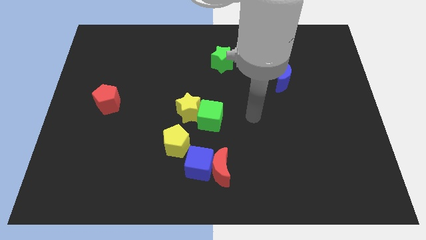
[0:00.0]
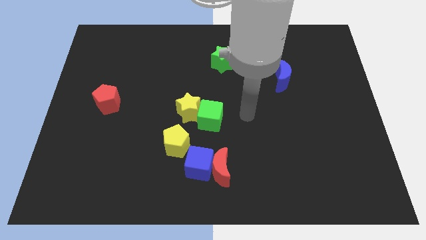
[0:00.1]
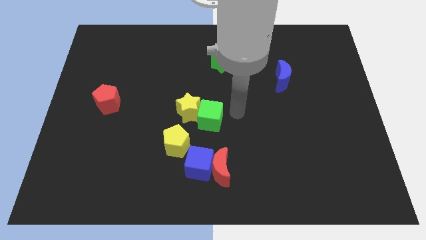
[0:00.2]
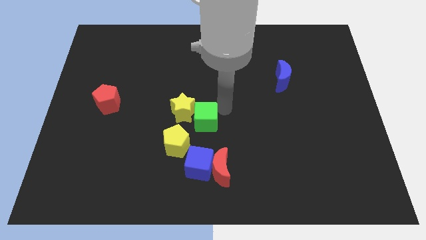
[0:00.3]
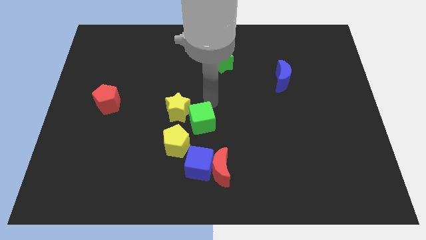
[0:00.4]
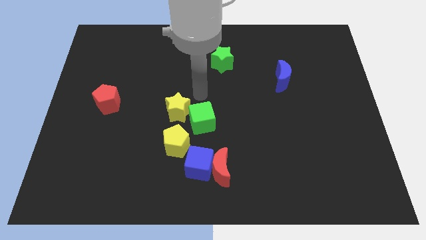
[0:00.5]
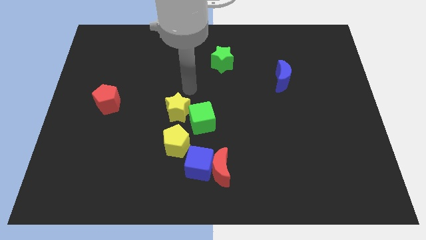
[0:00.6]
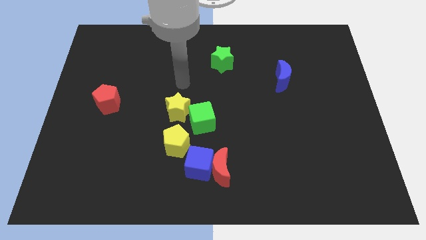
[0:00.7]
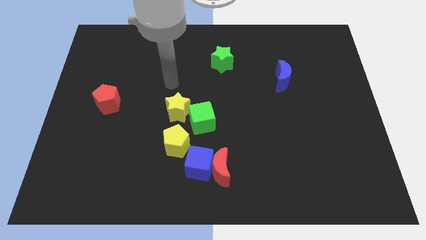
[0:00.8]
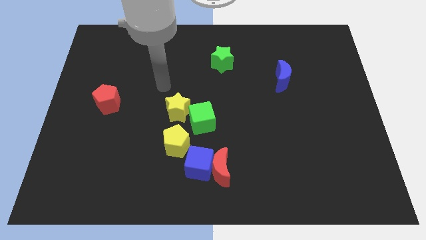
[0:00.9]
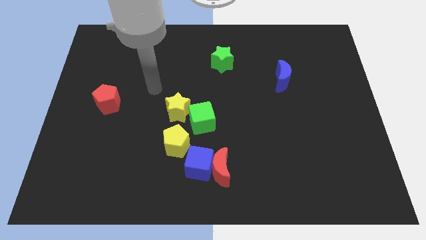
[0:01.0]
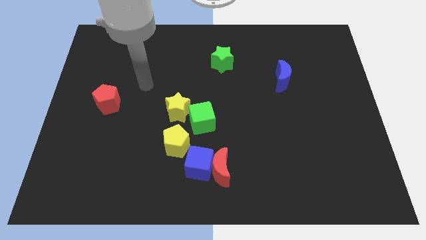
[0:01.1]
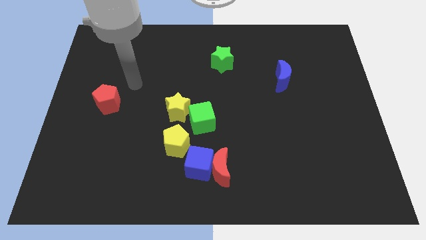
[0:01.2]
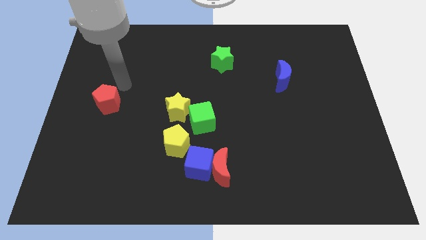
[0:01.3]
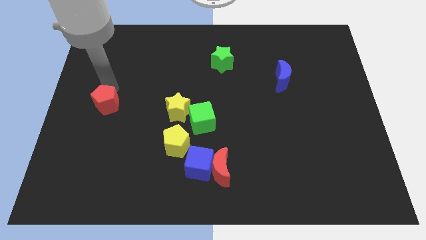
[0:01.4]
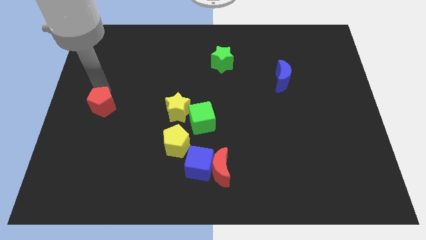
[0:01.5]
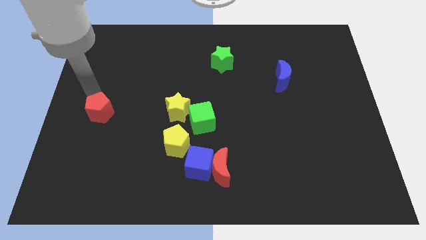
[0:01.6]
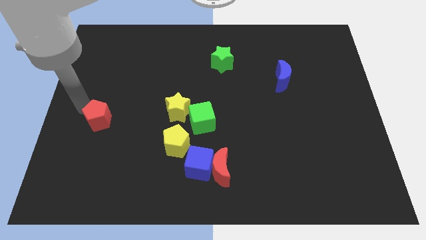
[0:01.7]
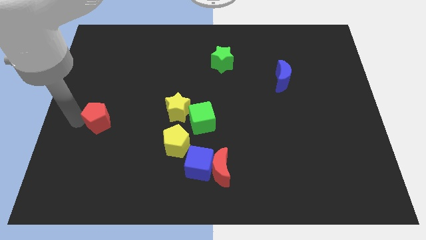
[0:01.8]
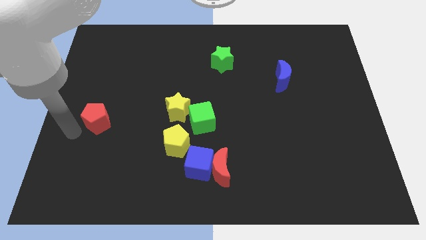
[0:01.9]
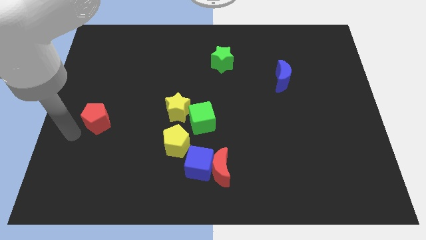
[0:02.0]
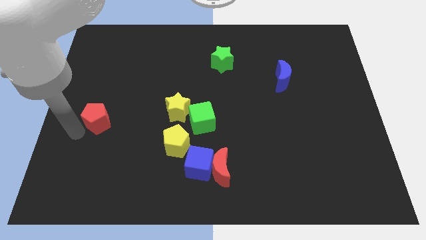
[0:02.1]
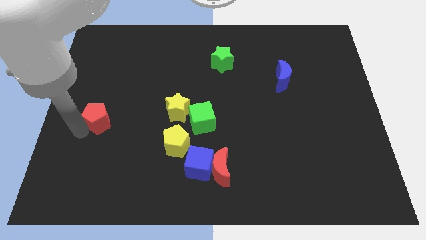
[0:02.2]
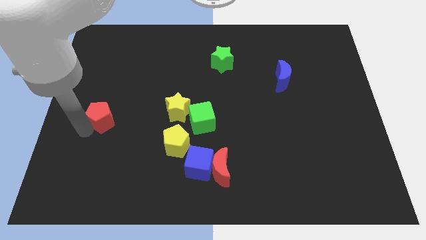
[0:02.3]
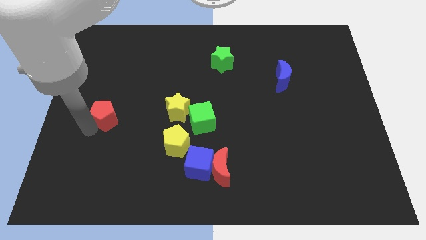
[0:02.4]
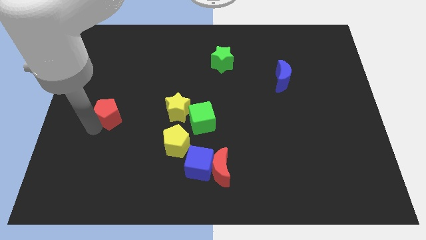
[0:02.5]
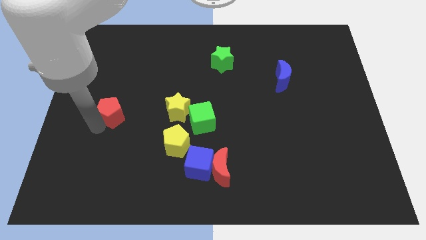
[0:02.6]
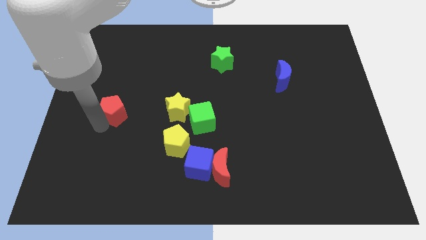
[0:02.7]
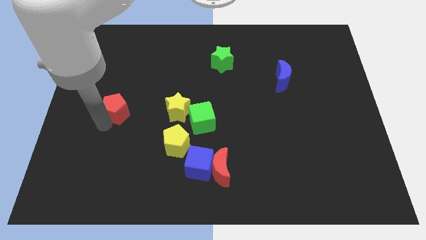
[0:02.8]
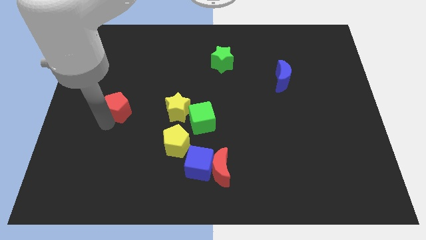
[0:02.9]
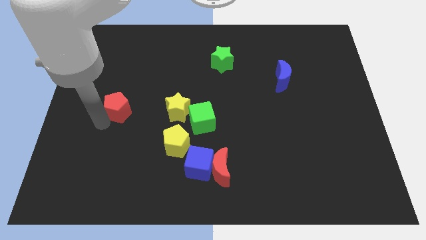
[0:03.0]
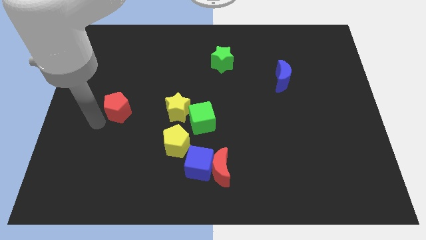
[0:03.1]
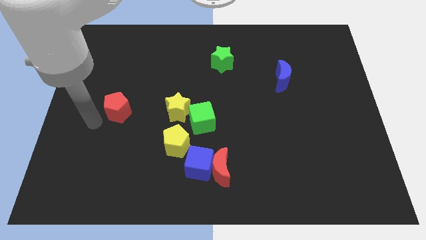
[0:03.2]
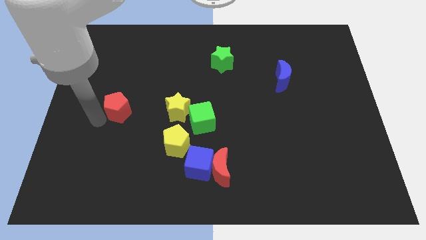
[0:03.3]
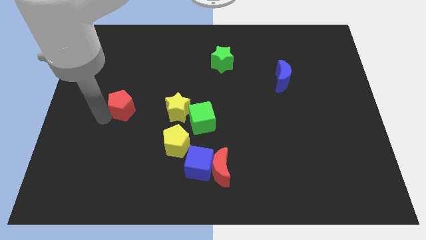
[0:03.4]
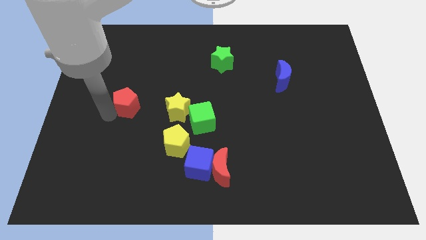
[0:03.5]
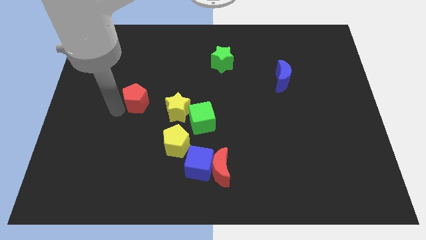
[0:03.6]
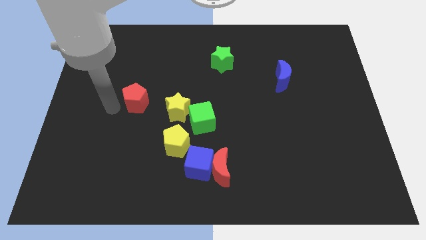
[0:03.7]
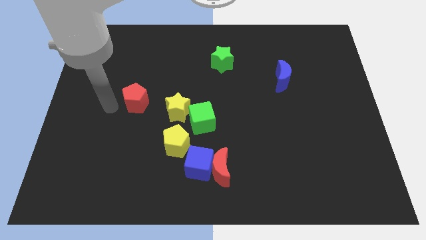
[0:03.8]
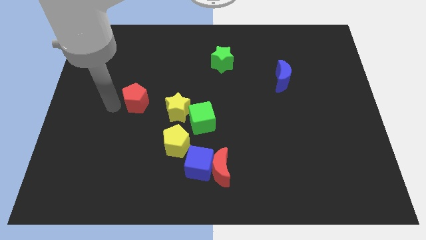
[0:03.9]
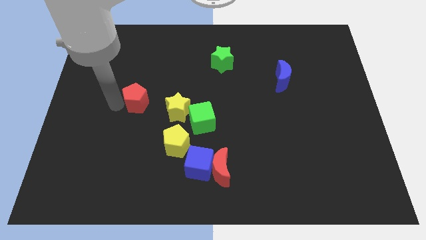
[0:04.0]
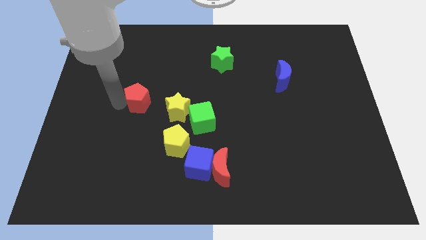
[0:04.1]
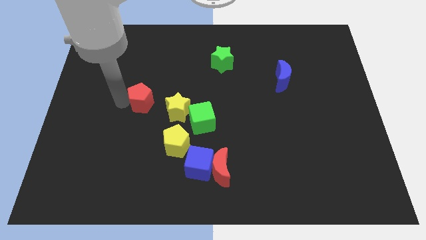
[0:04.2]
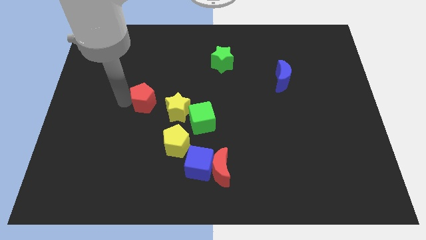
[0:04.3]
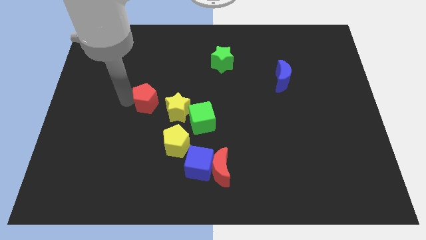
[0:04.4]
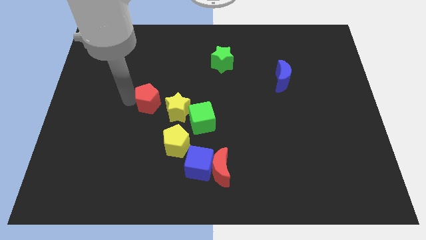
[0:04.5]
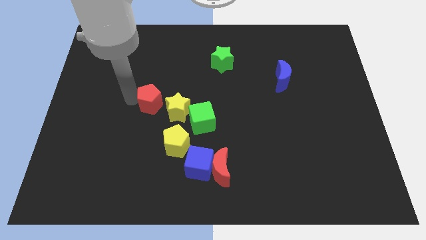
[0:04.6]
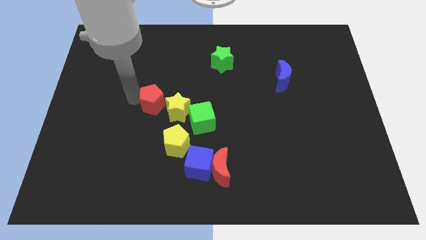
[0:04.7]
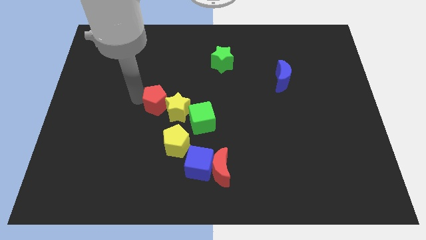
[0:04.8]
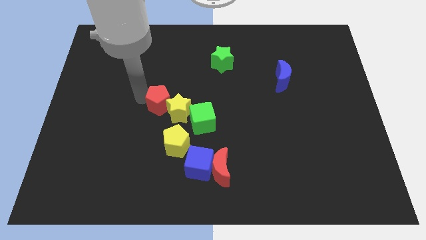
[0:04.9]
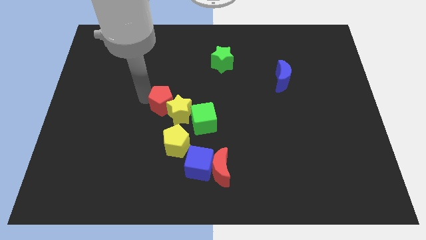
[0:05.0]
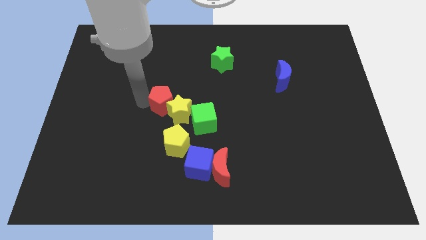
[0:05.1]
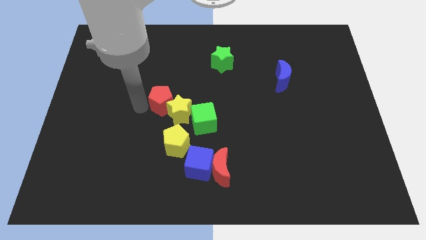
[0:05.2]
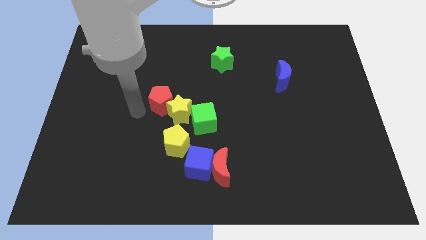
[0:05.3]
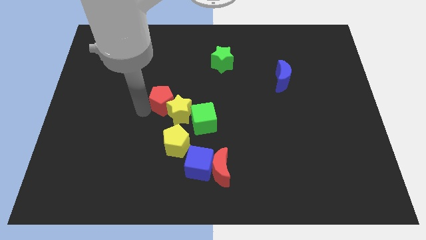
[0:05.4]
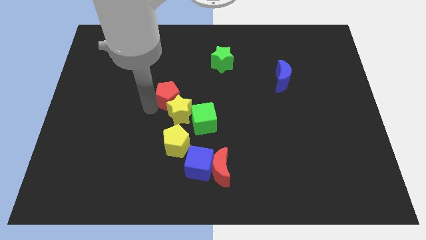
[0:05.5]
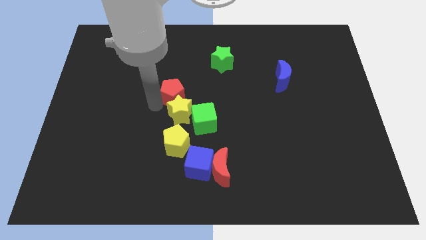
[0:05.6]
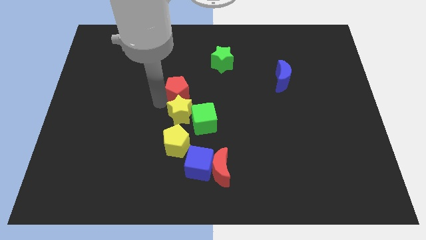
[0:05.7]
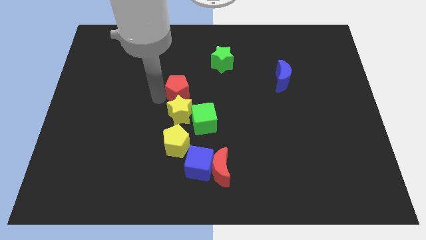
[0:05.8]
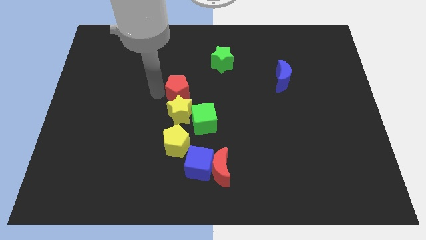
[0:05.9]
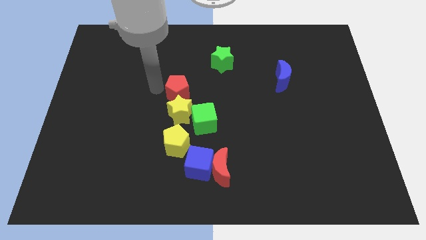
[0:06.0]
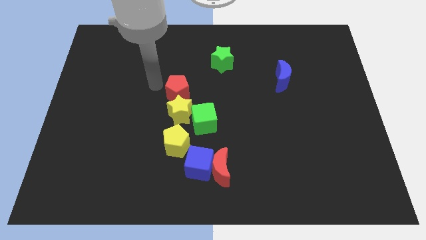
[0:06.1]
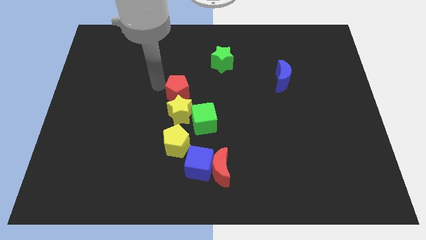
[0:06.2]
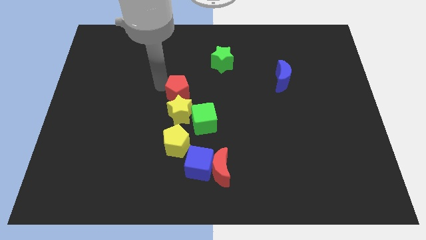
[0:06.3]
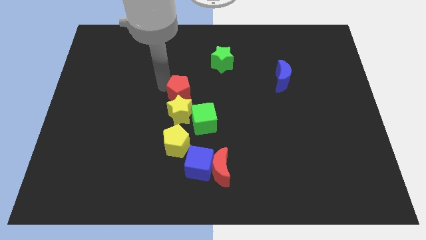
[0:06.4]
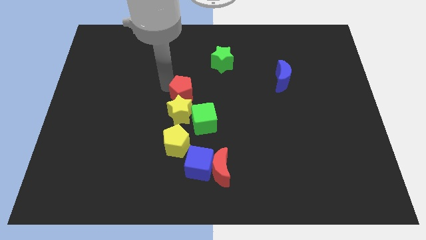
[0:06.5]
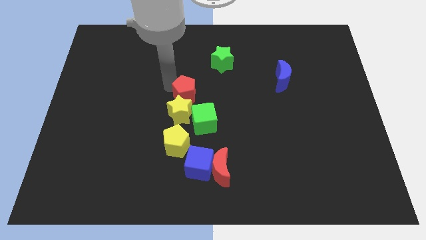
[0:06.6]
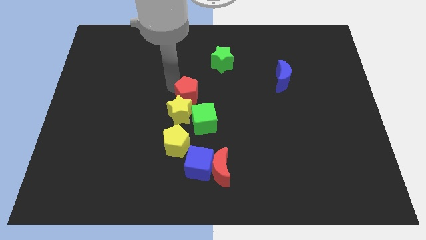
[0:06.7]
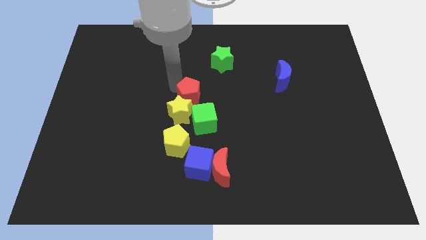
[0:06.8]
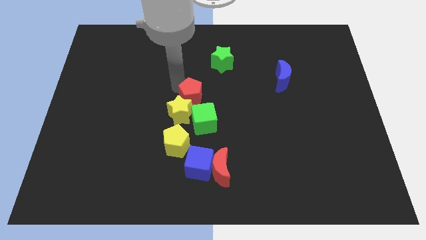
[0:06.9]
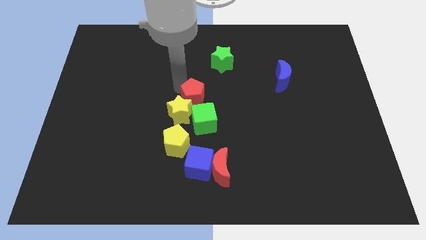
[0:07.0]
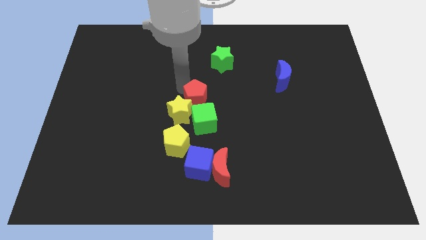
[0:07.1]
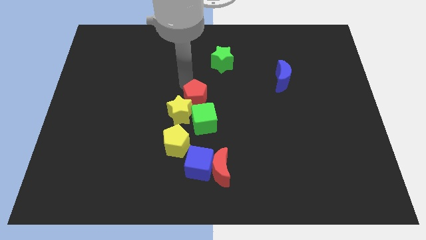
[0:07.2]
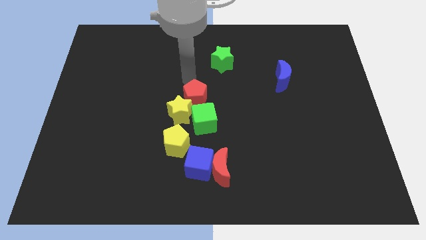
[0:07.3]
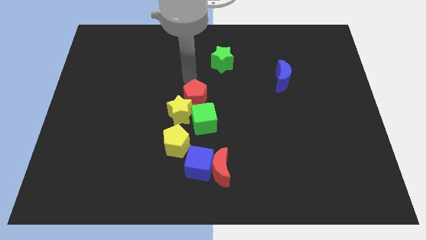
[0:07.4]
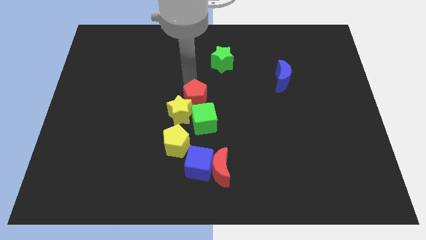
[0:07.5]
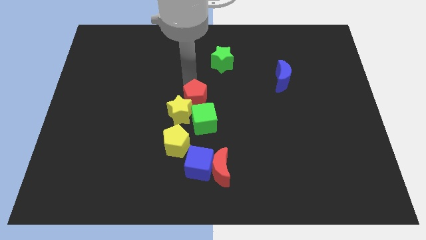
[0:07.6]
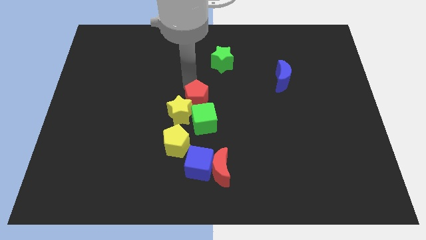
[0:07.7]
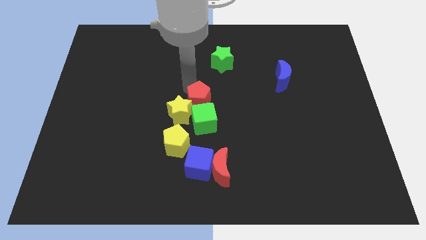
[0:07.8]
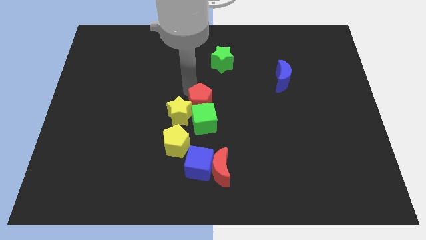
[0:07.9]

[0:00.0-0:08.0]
slide the red pentagon close to the green cube
